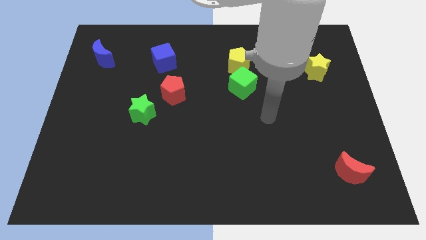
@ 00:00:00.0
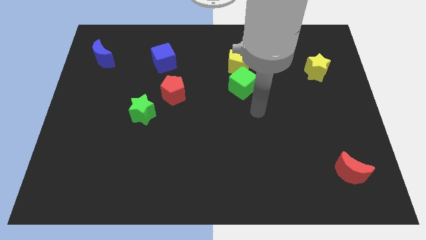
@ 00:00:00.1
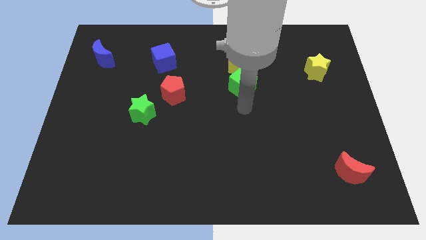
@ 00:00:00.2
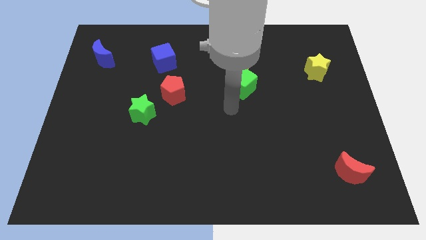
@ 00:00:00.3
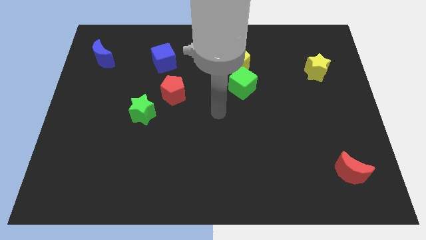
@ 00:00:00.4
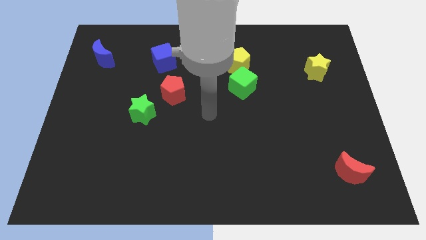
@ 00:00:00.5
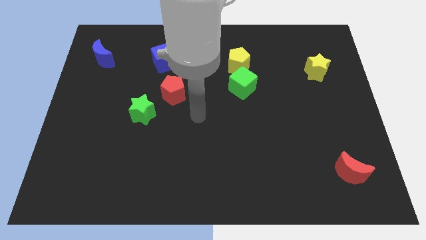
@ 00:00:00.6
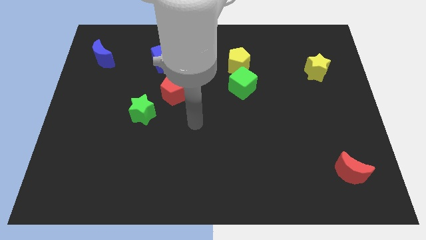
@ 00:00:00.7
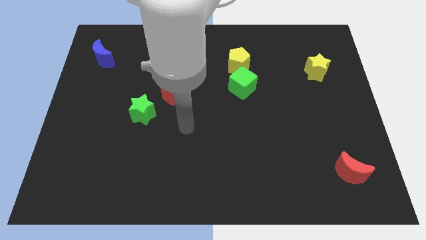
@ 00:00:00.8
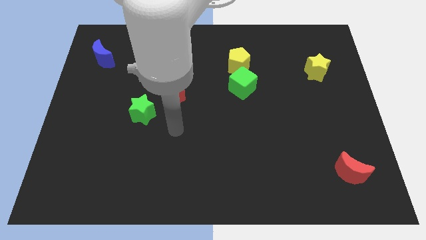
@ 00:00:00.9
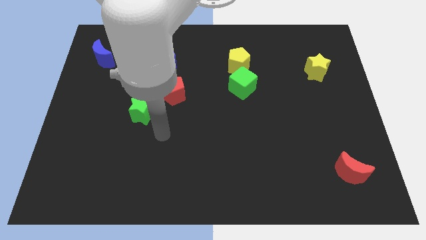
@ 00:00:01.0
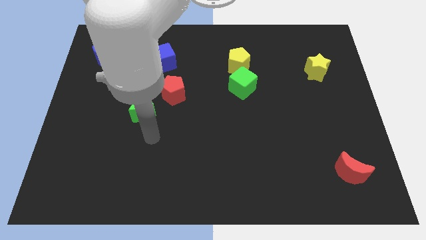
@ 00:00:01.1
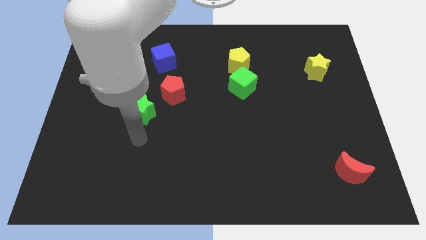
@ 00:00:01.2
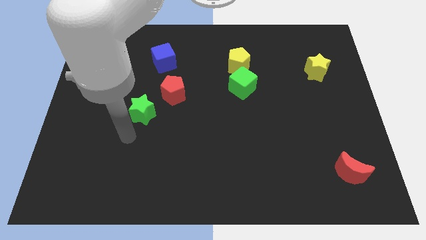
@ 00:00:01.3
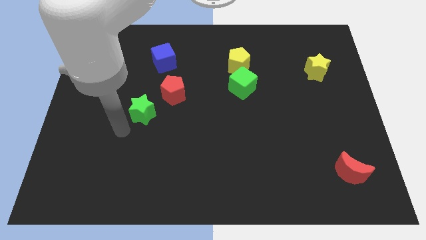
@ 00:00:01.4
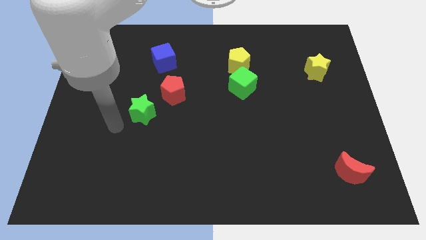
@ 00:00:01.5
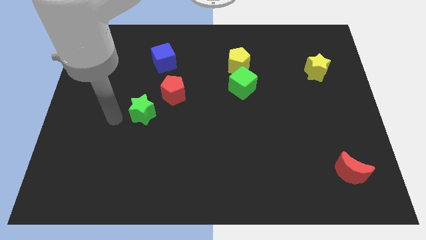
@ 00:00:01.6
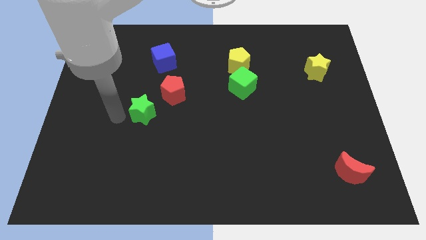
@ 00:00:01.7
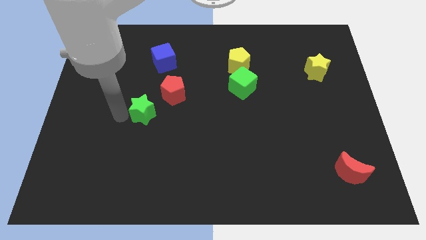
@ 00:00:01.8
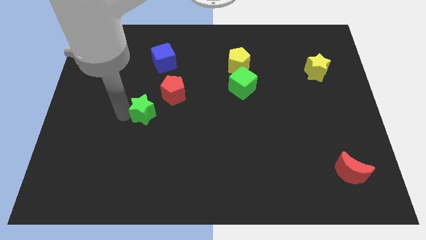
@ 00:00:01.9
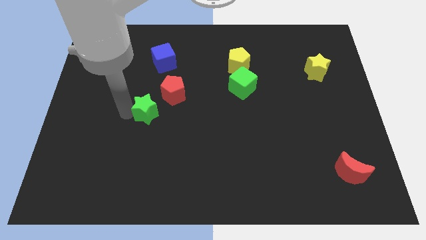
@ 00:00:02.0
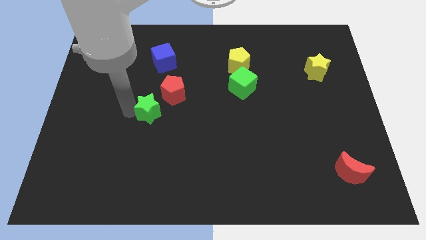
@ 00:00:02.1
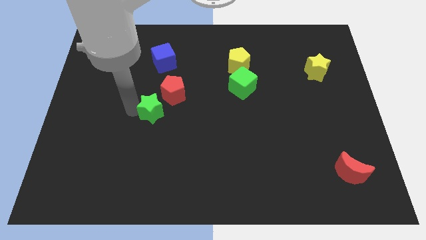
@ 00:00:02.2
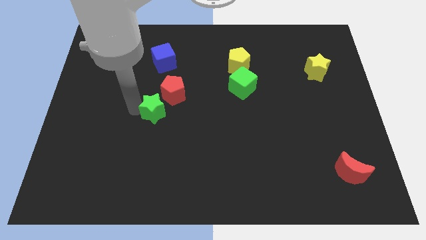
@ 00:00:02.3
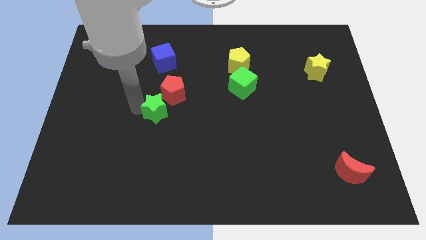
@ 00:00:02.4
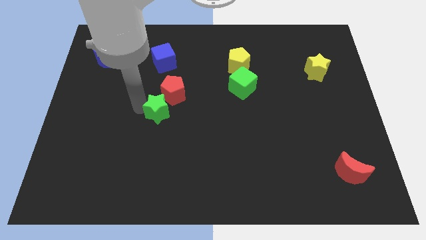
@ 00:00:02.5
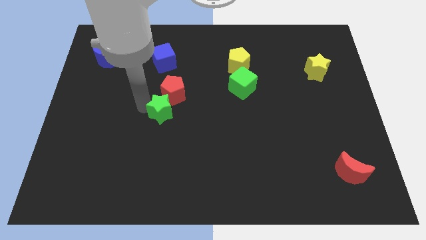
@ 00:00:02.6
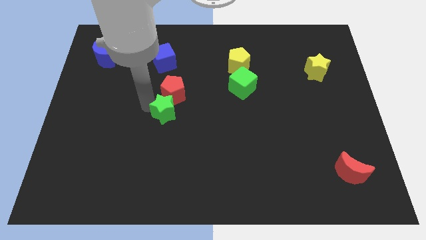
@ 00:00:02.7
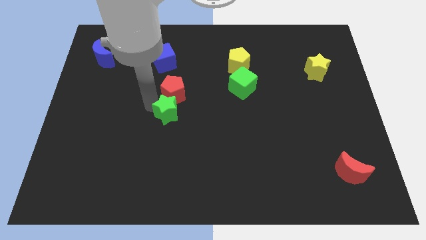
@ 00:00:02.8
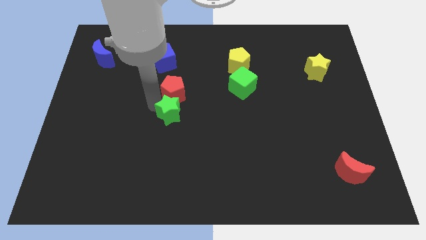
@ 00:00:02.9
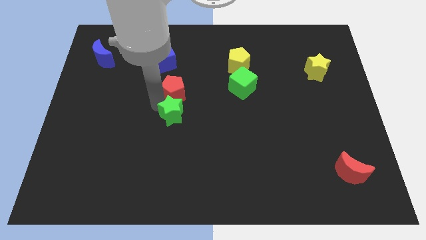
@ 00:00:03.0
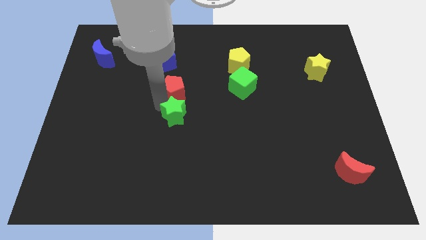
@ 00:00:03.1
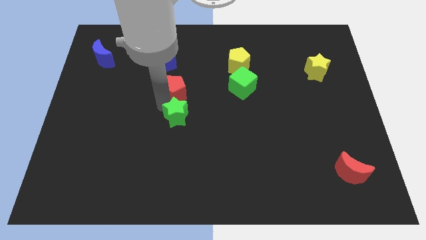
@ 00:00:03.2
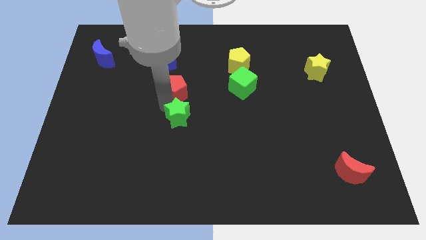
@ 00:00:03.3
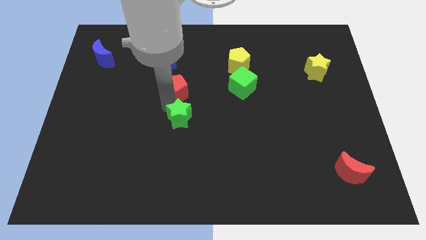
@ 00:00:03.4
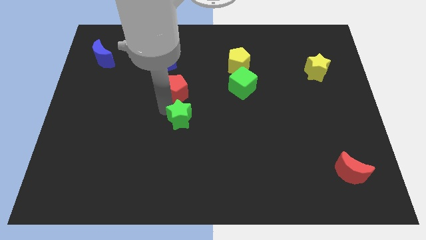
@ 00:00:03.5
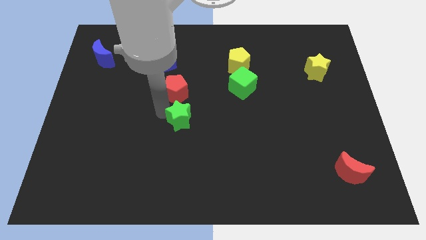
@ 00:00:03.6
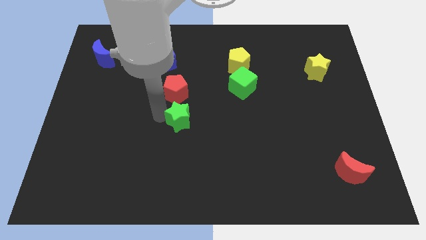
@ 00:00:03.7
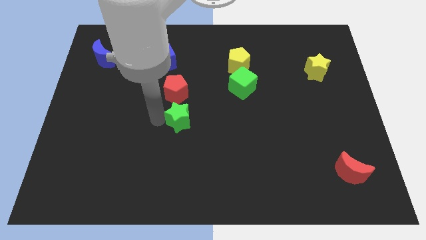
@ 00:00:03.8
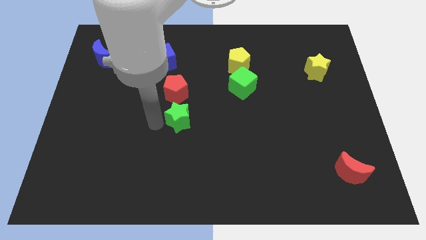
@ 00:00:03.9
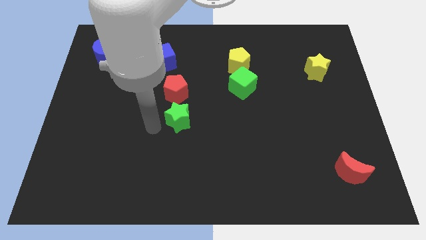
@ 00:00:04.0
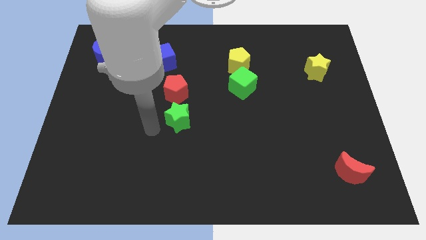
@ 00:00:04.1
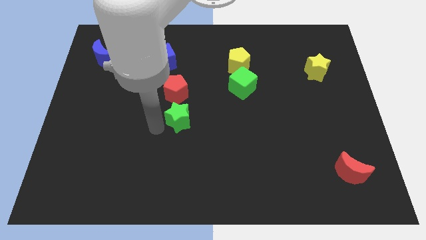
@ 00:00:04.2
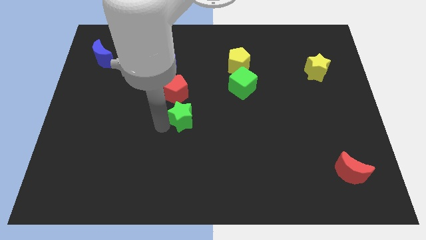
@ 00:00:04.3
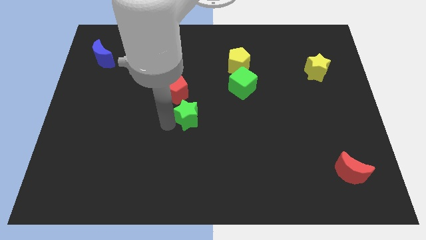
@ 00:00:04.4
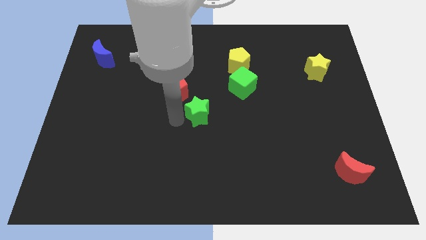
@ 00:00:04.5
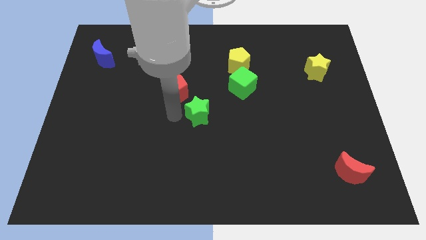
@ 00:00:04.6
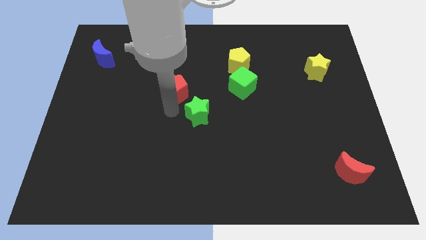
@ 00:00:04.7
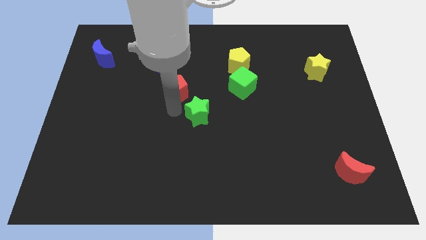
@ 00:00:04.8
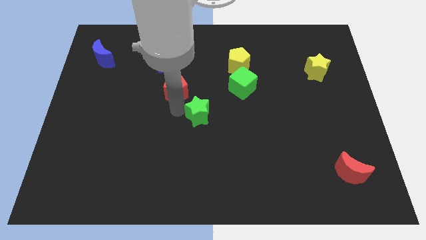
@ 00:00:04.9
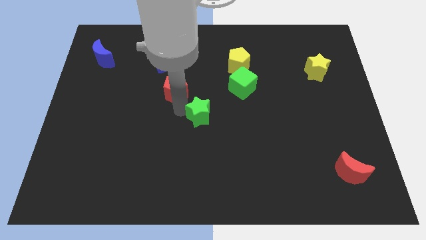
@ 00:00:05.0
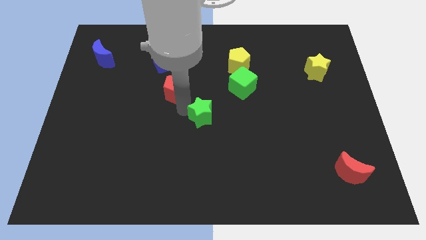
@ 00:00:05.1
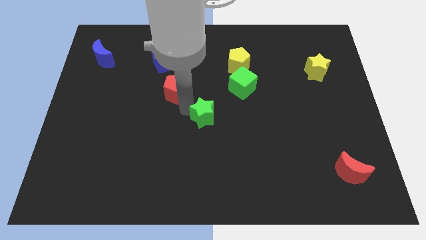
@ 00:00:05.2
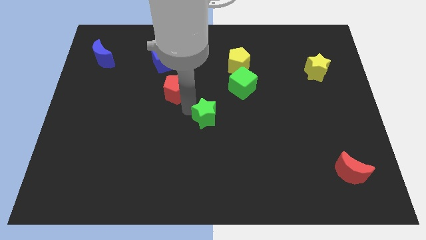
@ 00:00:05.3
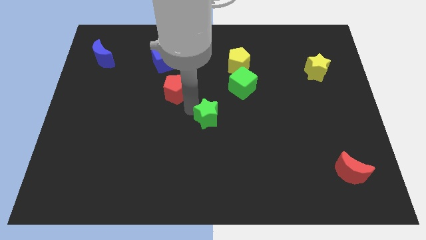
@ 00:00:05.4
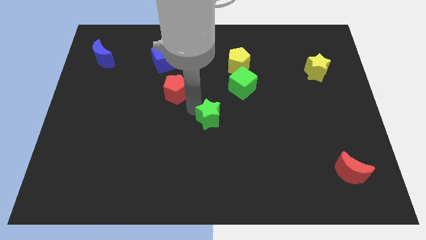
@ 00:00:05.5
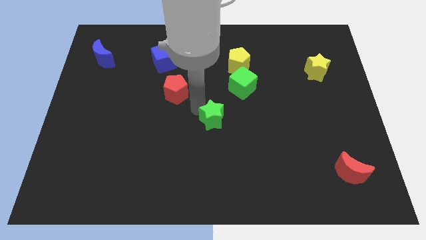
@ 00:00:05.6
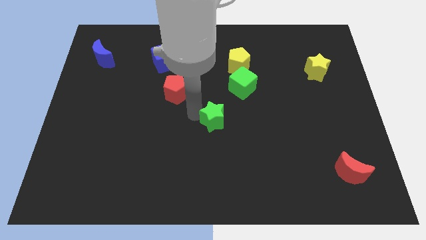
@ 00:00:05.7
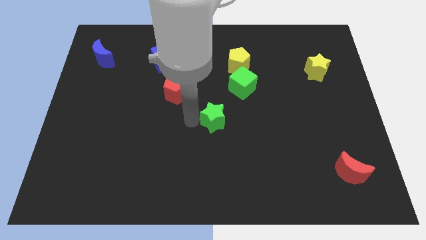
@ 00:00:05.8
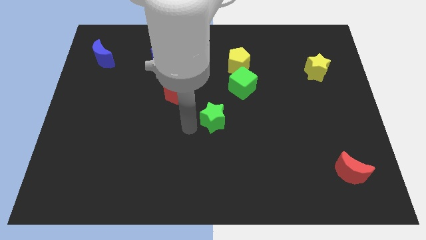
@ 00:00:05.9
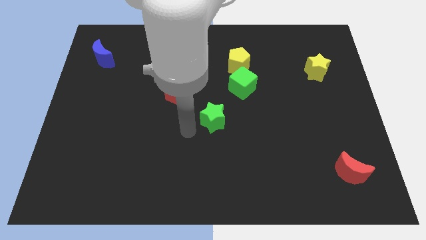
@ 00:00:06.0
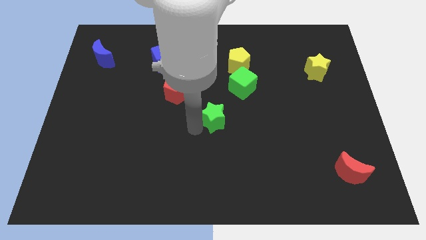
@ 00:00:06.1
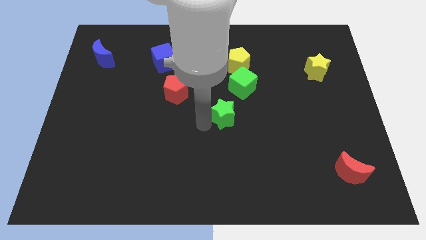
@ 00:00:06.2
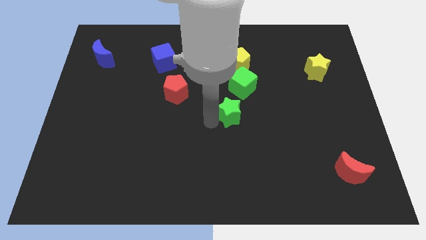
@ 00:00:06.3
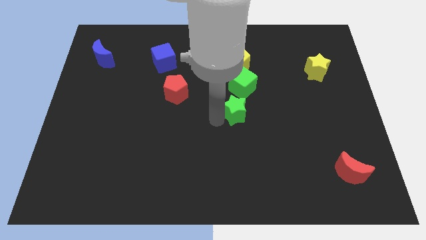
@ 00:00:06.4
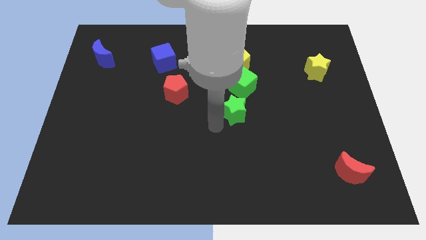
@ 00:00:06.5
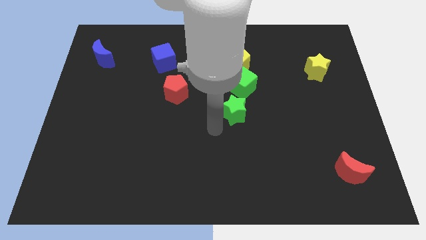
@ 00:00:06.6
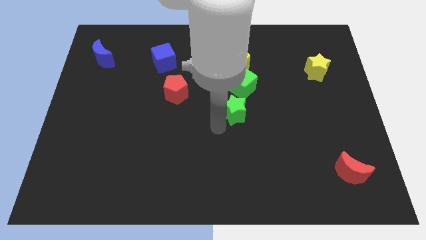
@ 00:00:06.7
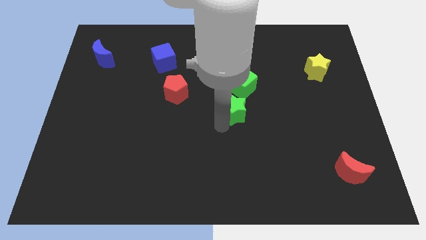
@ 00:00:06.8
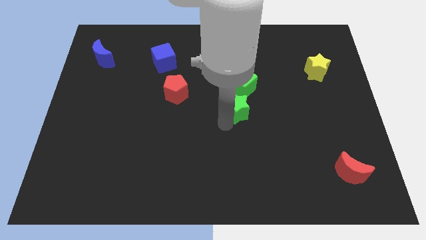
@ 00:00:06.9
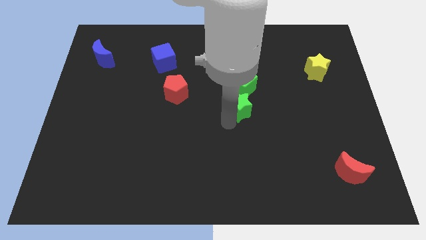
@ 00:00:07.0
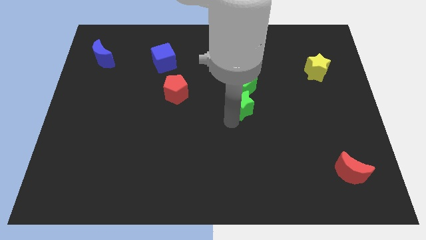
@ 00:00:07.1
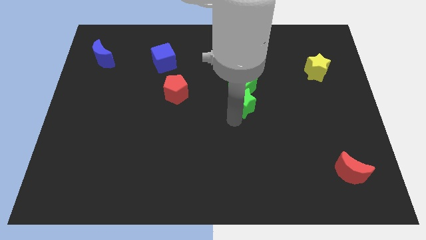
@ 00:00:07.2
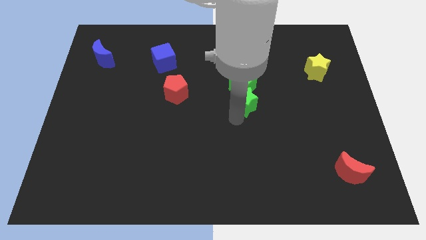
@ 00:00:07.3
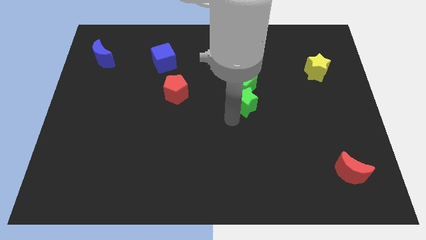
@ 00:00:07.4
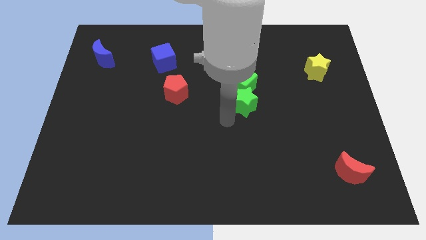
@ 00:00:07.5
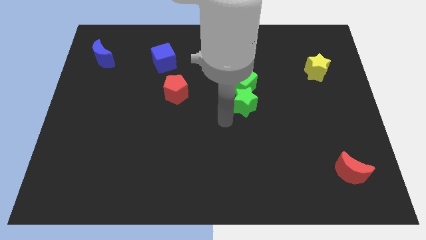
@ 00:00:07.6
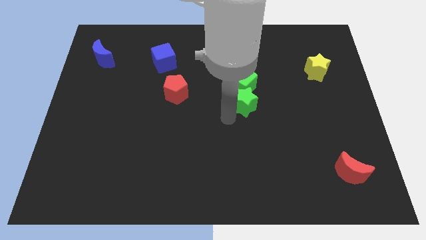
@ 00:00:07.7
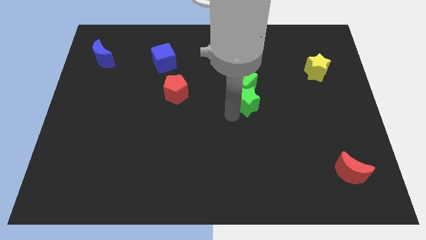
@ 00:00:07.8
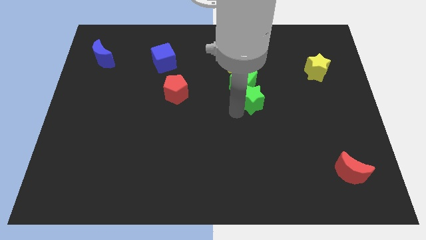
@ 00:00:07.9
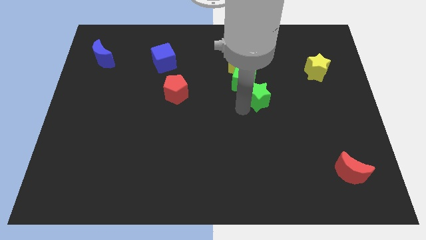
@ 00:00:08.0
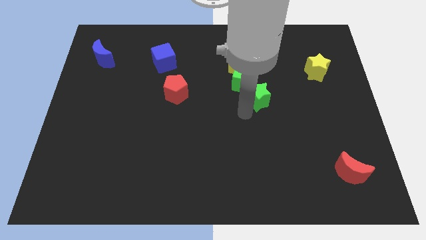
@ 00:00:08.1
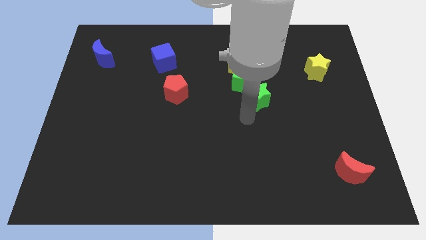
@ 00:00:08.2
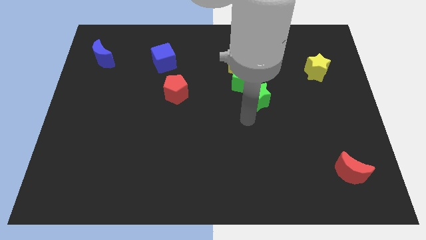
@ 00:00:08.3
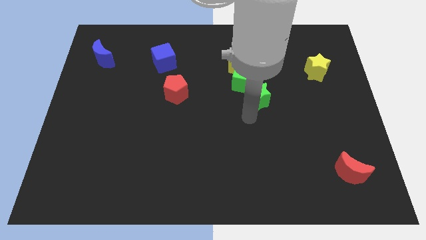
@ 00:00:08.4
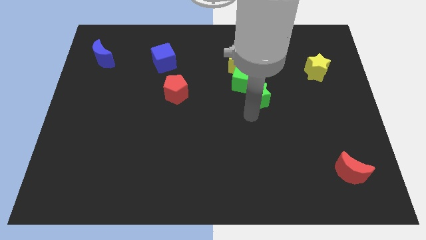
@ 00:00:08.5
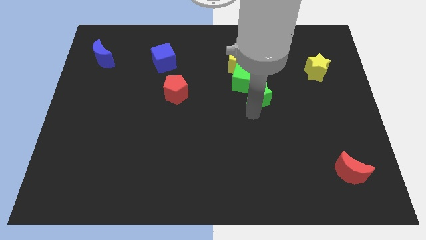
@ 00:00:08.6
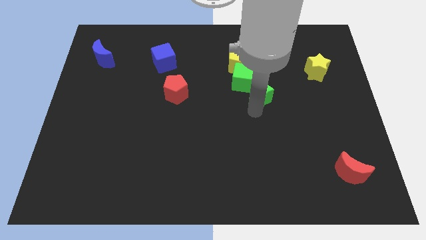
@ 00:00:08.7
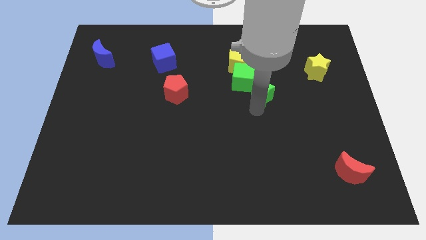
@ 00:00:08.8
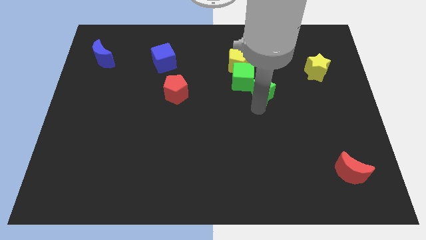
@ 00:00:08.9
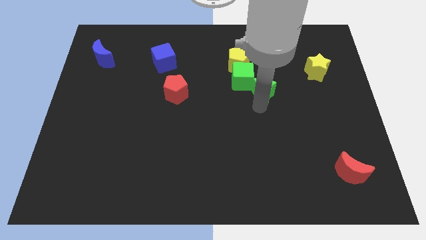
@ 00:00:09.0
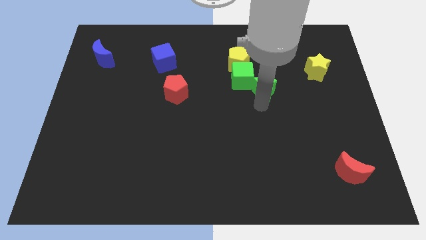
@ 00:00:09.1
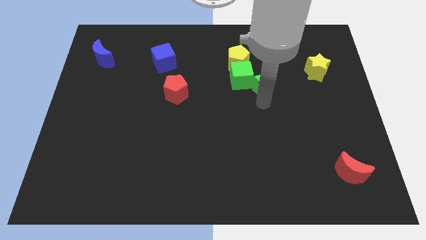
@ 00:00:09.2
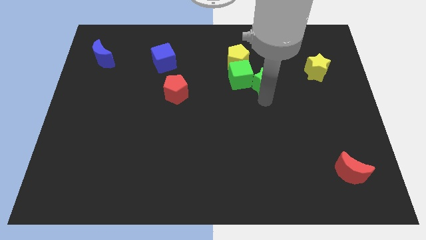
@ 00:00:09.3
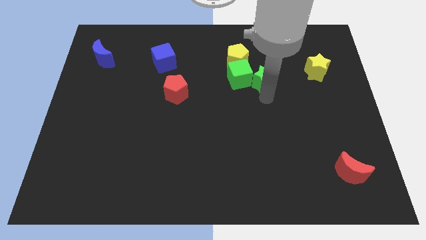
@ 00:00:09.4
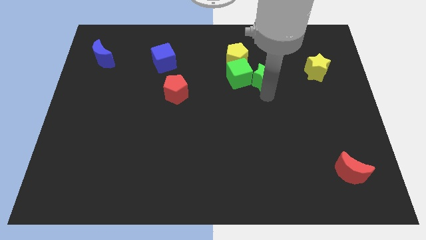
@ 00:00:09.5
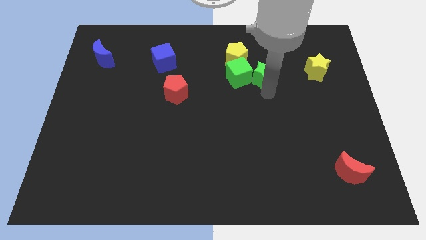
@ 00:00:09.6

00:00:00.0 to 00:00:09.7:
put the green star to the top right of the green cube